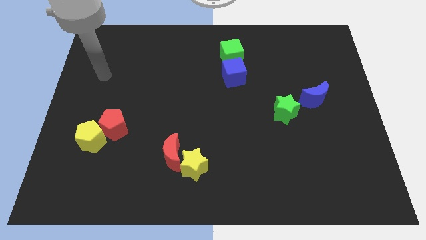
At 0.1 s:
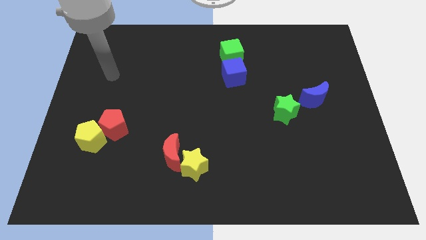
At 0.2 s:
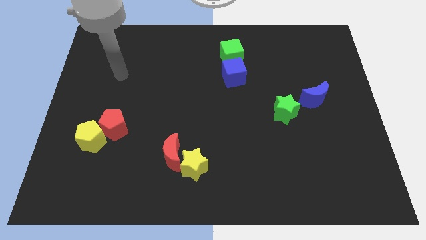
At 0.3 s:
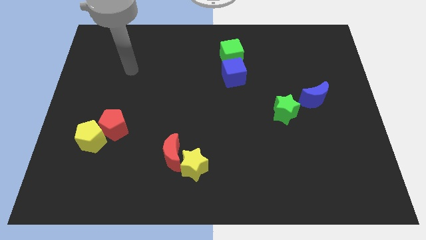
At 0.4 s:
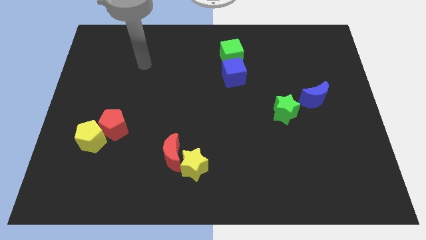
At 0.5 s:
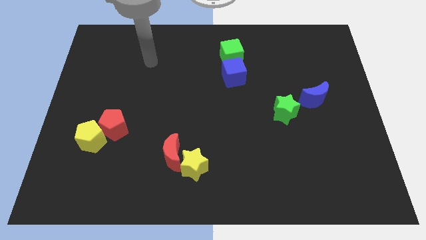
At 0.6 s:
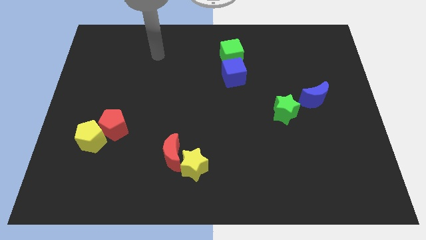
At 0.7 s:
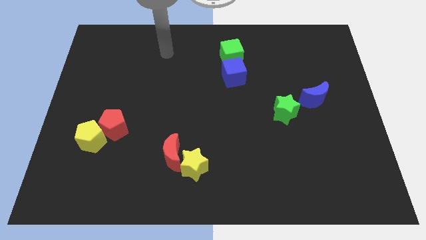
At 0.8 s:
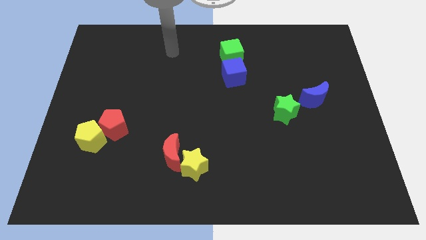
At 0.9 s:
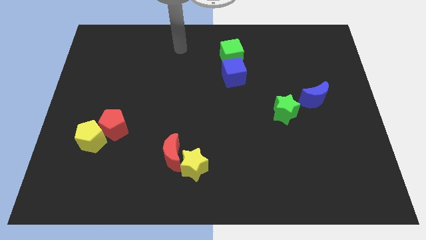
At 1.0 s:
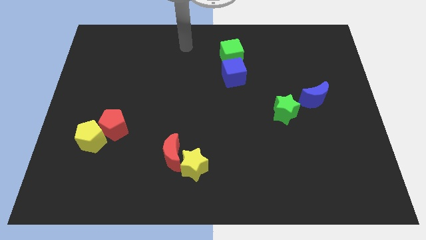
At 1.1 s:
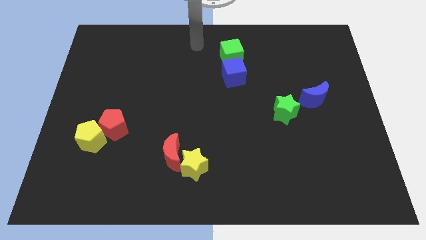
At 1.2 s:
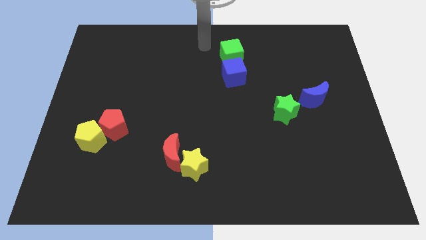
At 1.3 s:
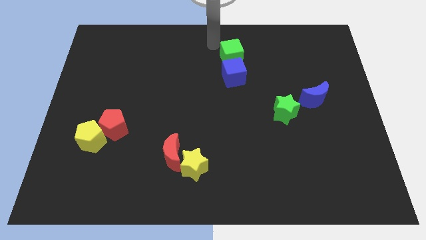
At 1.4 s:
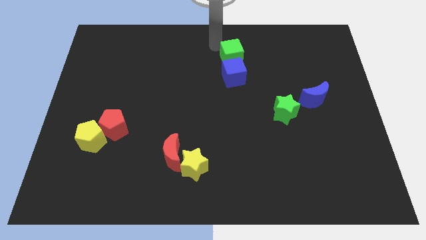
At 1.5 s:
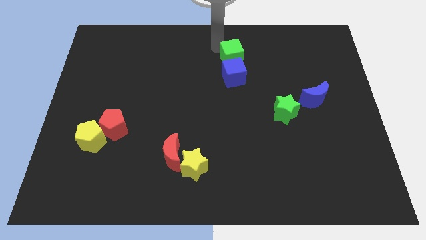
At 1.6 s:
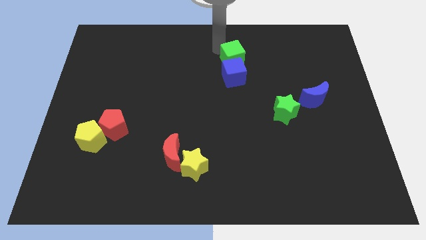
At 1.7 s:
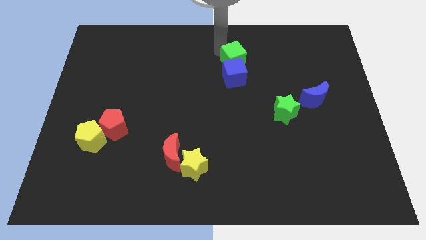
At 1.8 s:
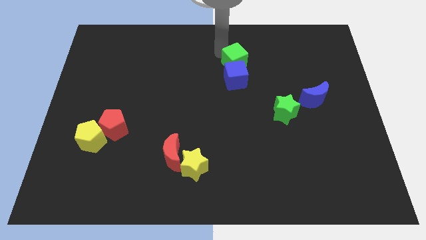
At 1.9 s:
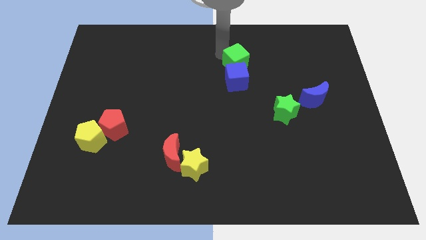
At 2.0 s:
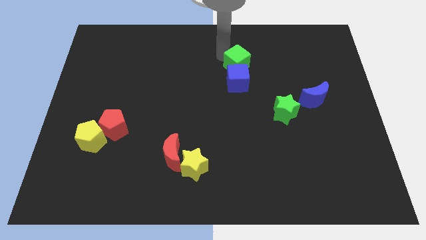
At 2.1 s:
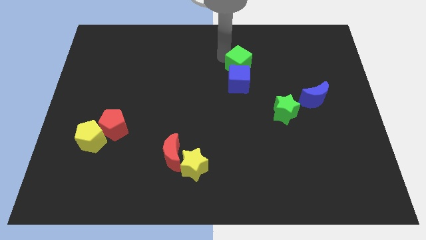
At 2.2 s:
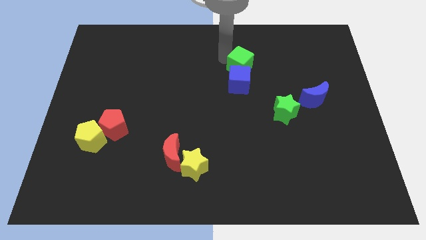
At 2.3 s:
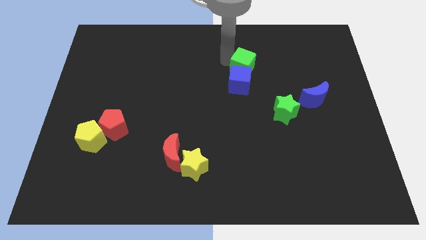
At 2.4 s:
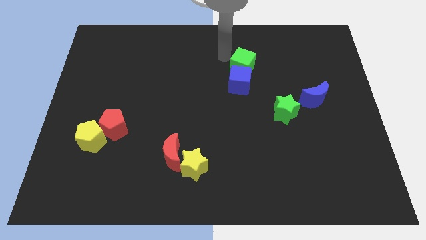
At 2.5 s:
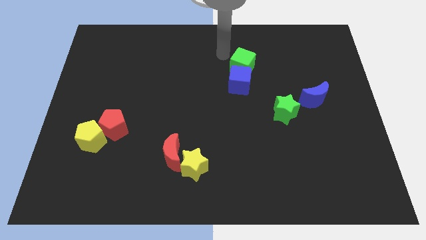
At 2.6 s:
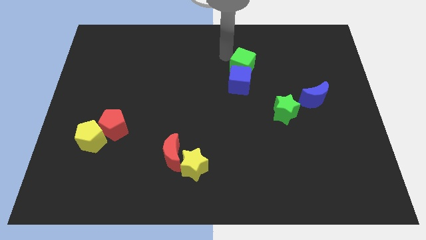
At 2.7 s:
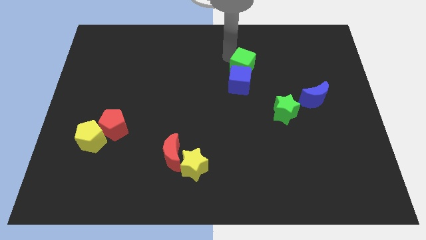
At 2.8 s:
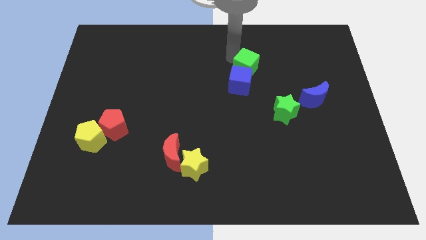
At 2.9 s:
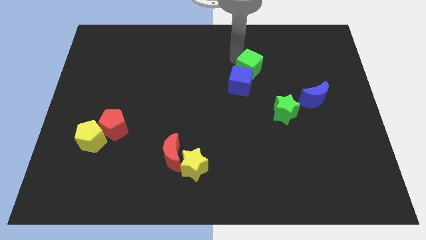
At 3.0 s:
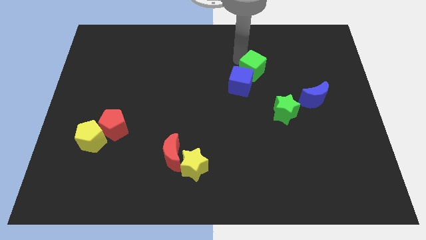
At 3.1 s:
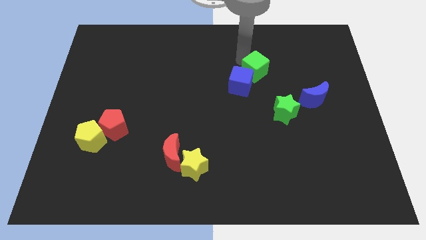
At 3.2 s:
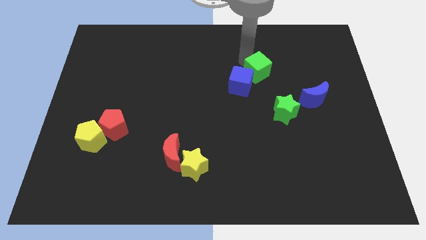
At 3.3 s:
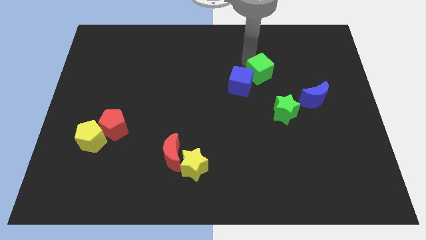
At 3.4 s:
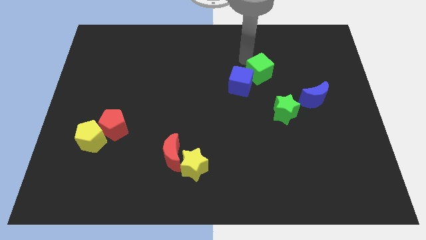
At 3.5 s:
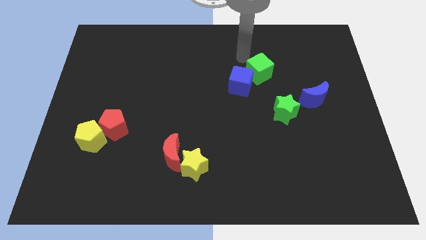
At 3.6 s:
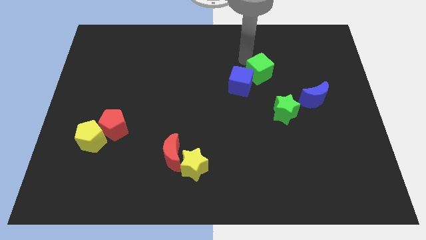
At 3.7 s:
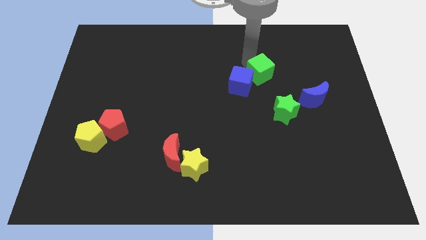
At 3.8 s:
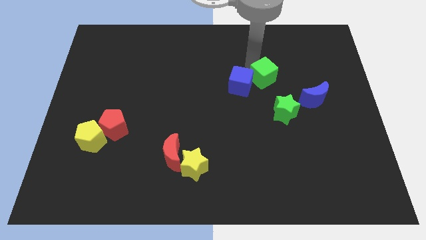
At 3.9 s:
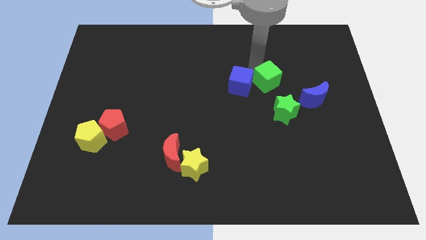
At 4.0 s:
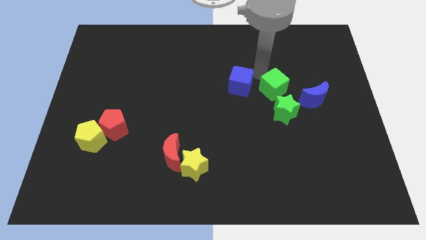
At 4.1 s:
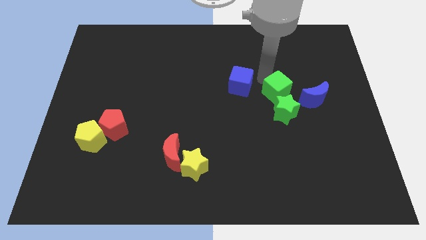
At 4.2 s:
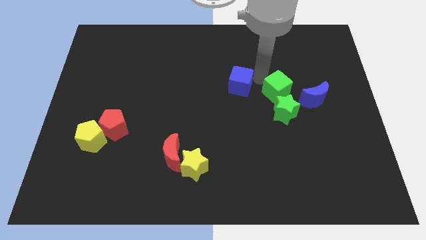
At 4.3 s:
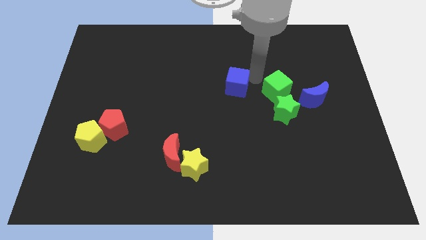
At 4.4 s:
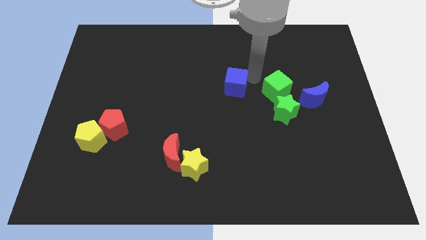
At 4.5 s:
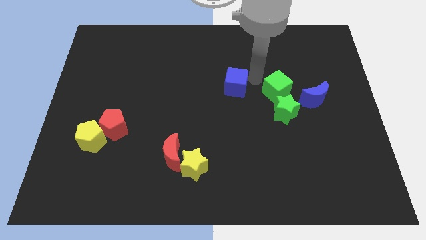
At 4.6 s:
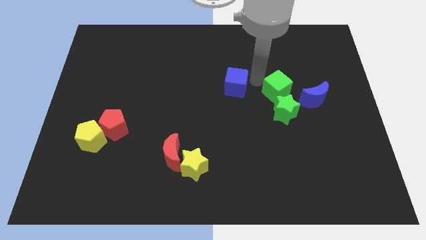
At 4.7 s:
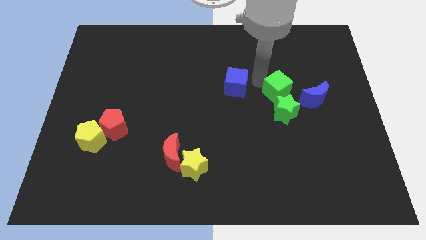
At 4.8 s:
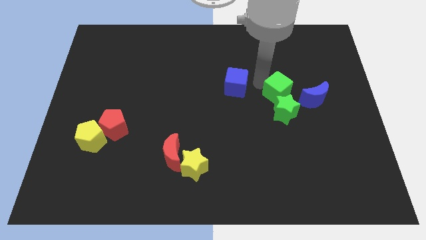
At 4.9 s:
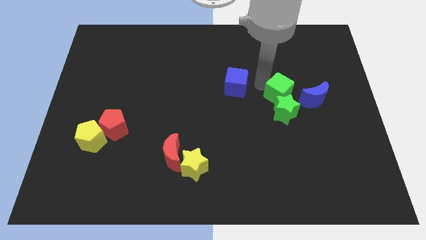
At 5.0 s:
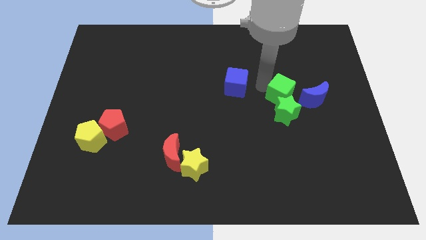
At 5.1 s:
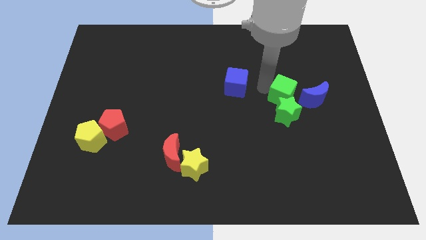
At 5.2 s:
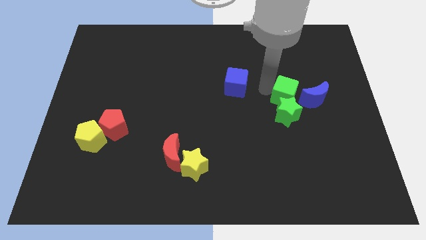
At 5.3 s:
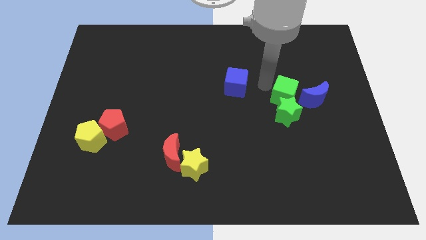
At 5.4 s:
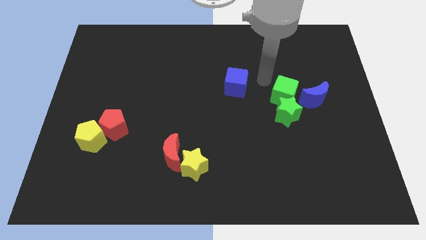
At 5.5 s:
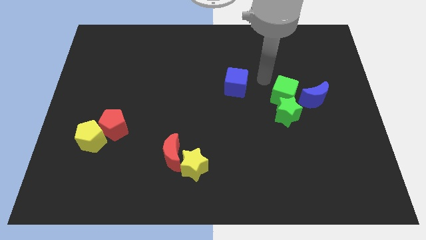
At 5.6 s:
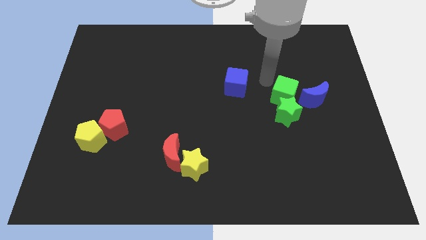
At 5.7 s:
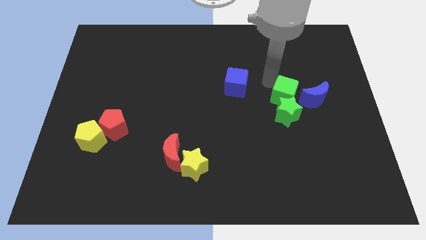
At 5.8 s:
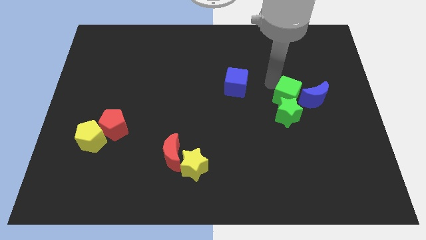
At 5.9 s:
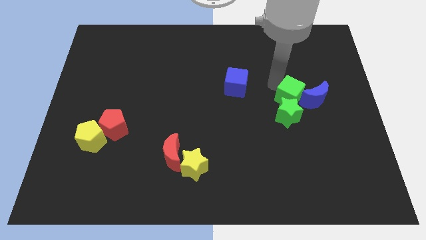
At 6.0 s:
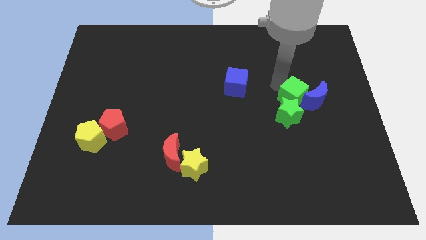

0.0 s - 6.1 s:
push the green cube downwards and then right

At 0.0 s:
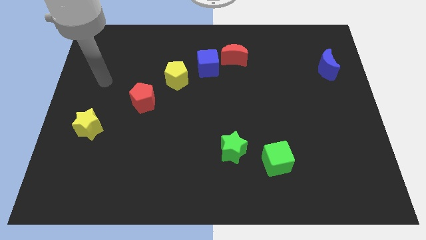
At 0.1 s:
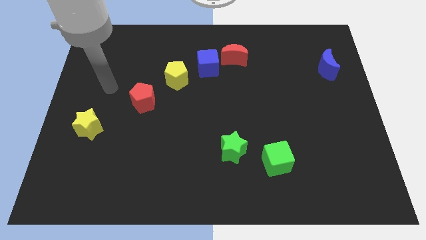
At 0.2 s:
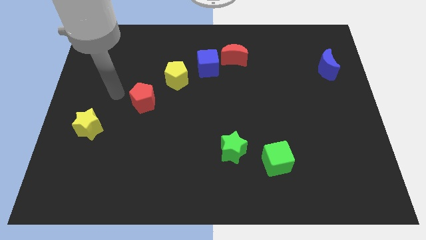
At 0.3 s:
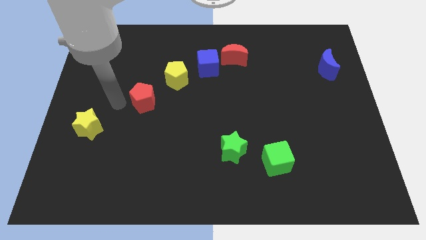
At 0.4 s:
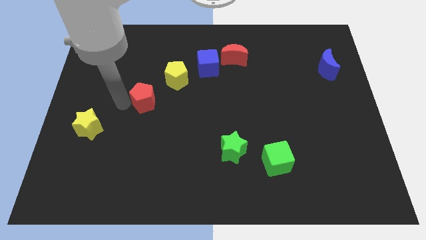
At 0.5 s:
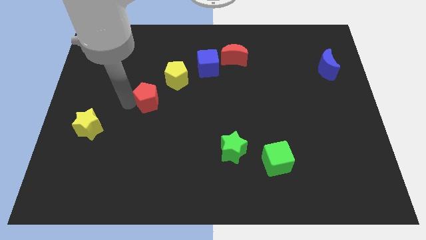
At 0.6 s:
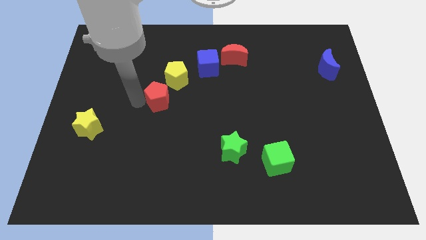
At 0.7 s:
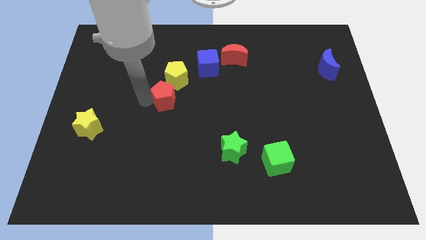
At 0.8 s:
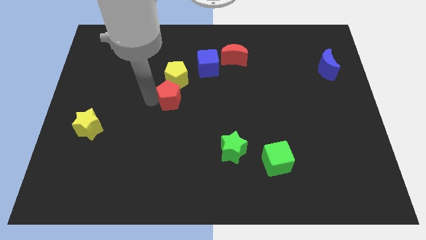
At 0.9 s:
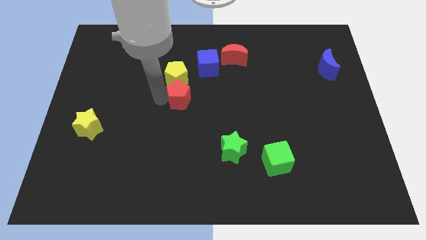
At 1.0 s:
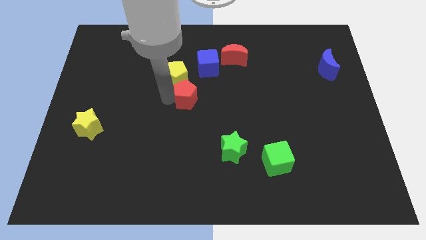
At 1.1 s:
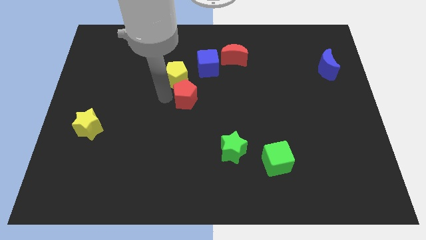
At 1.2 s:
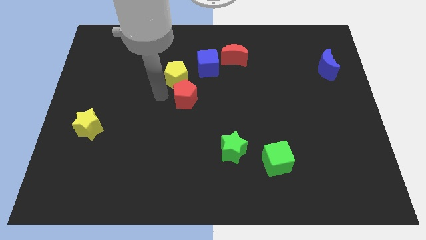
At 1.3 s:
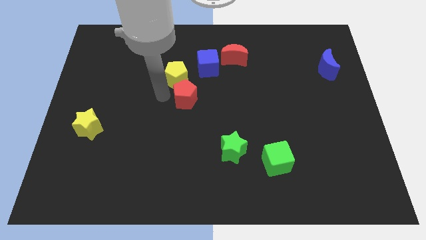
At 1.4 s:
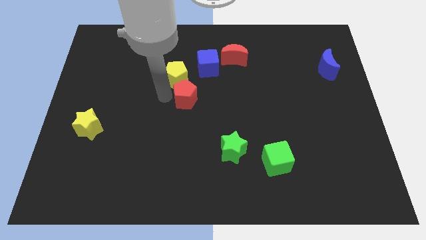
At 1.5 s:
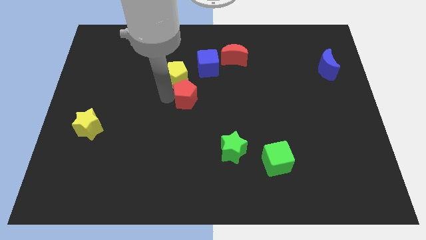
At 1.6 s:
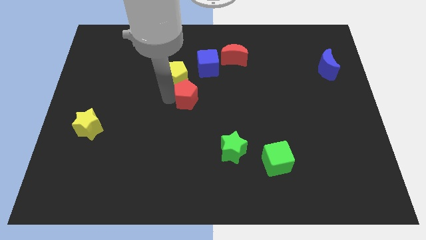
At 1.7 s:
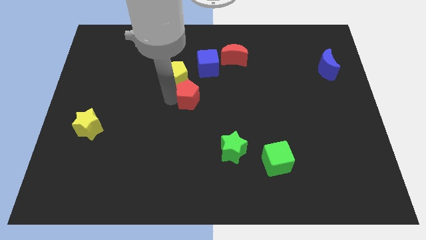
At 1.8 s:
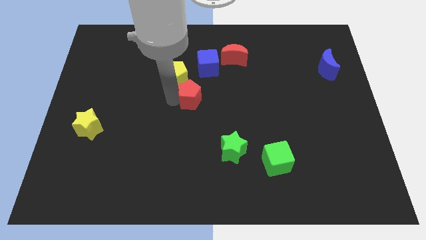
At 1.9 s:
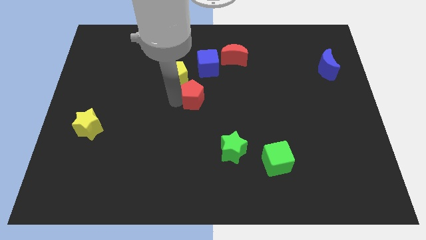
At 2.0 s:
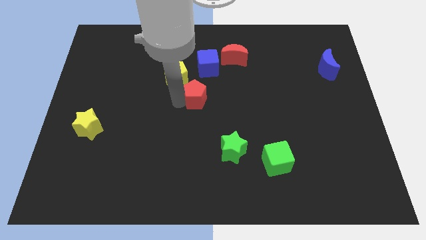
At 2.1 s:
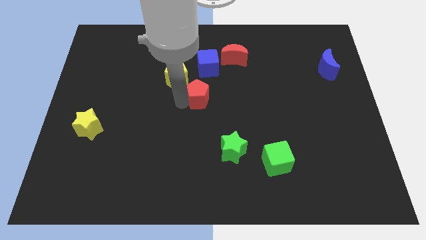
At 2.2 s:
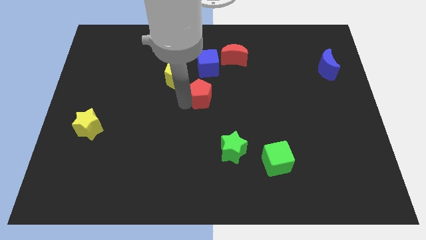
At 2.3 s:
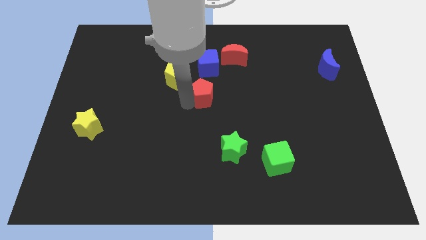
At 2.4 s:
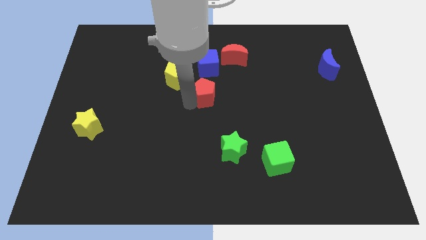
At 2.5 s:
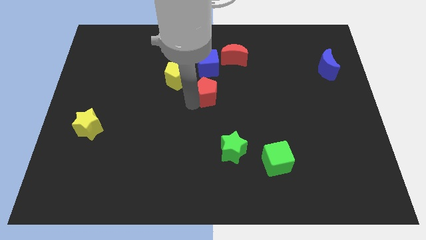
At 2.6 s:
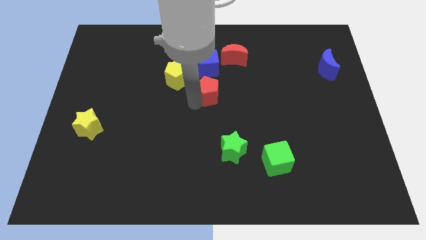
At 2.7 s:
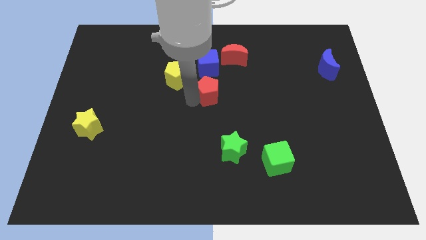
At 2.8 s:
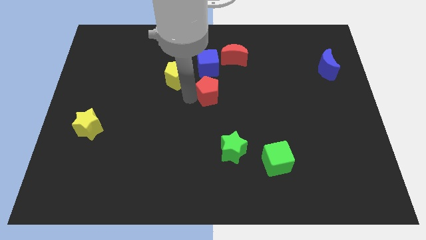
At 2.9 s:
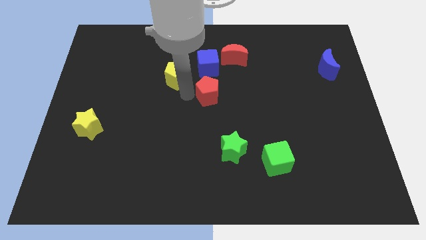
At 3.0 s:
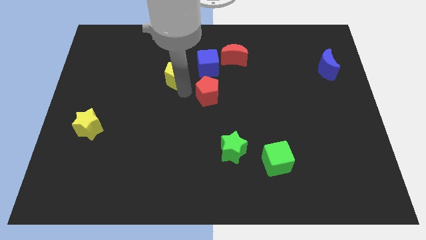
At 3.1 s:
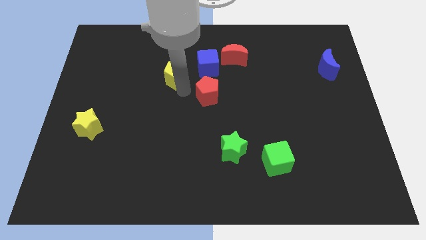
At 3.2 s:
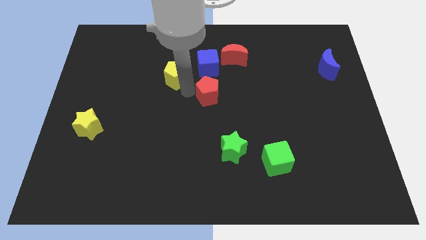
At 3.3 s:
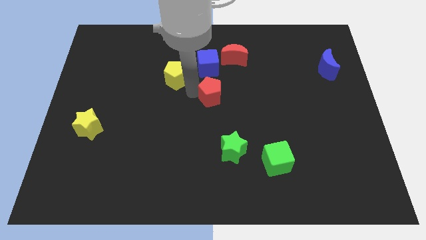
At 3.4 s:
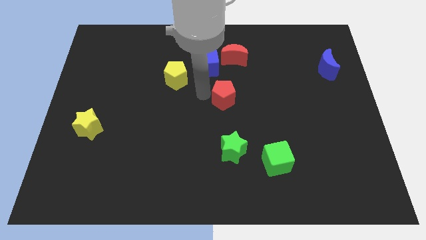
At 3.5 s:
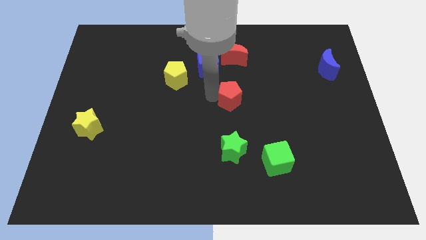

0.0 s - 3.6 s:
push the red pentagon to the right
